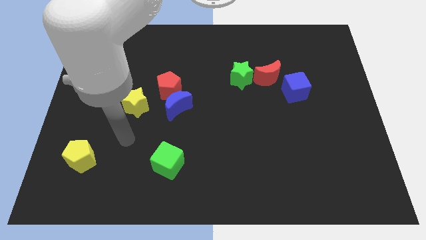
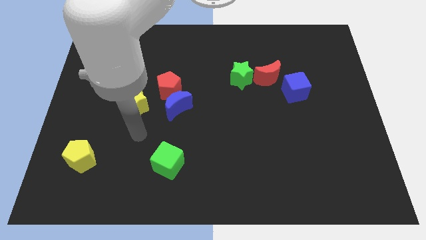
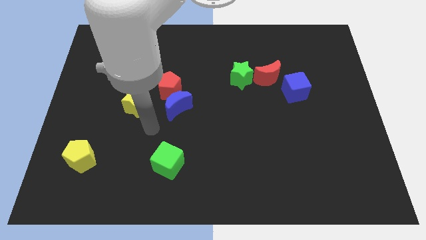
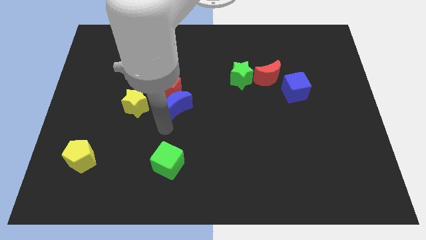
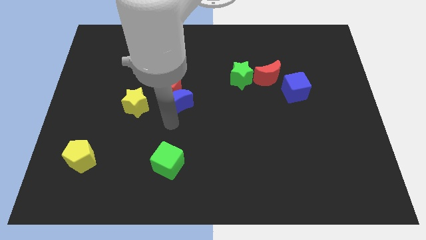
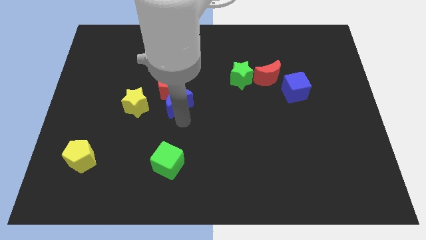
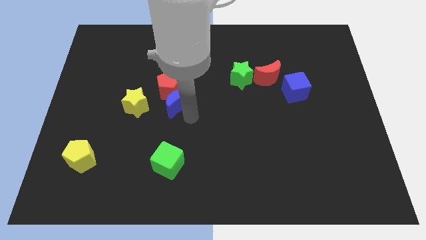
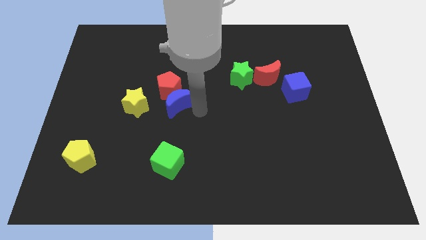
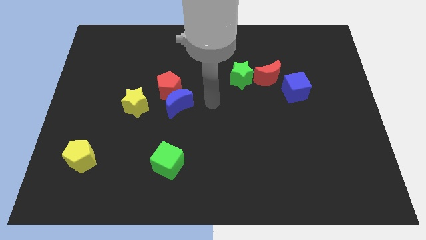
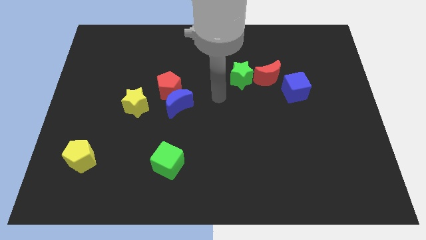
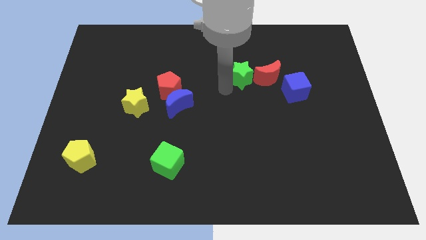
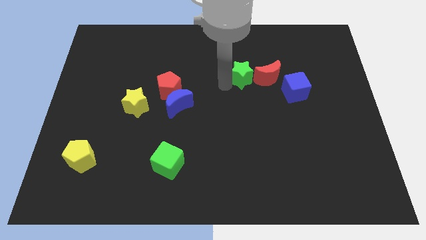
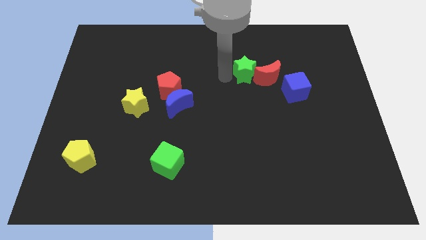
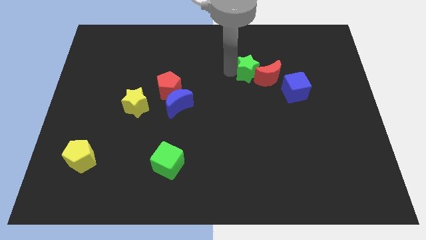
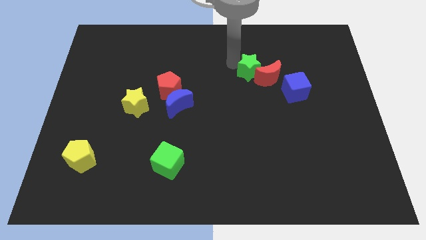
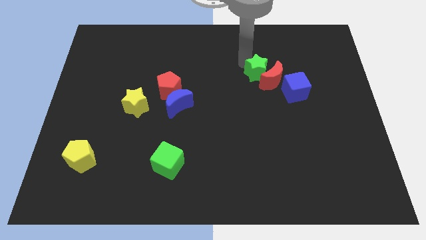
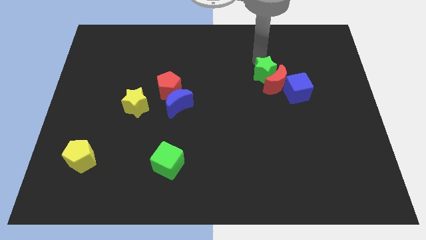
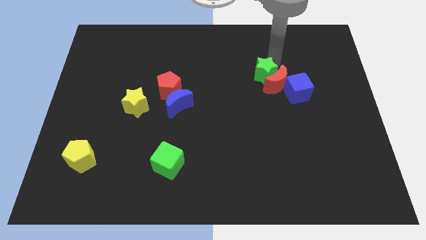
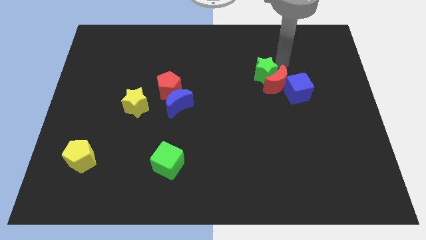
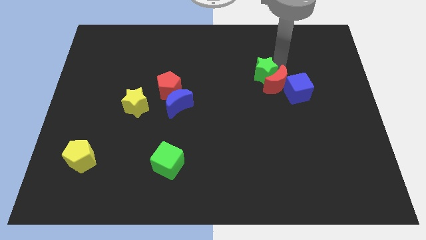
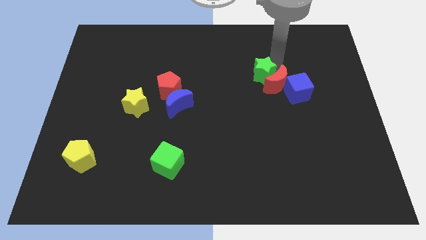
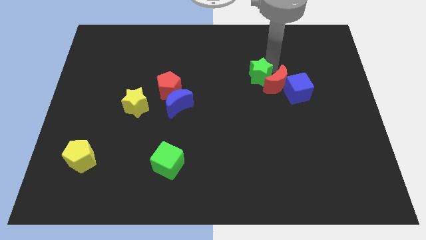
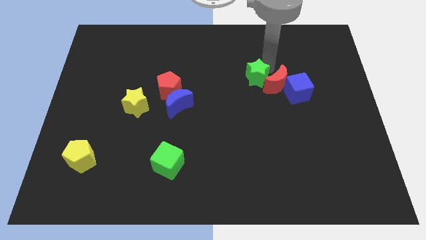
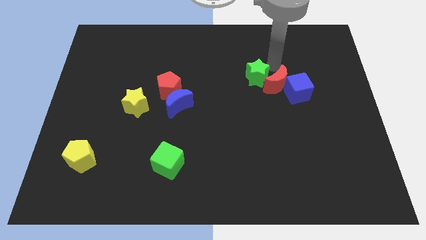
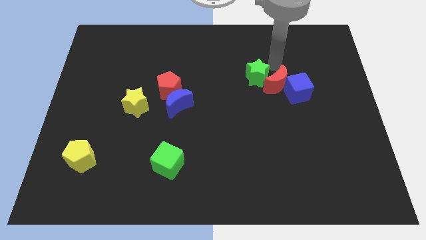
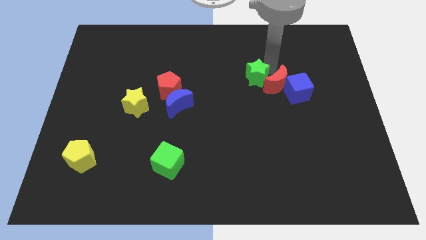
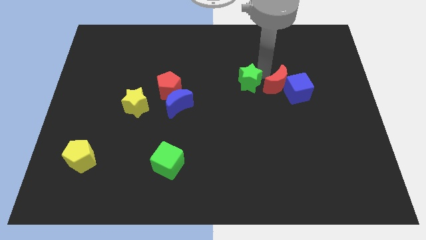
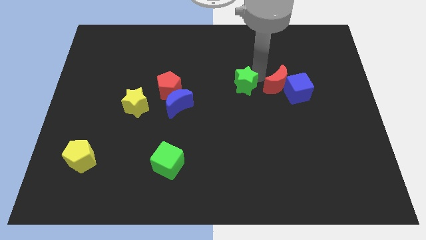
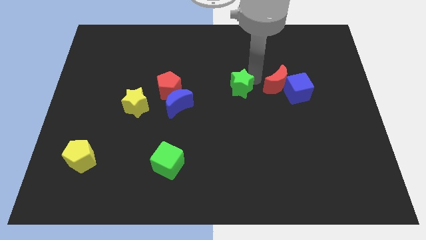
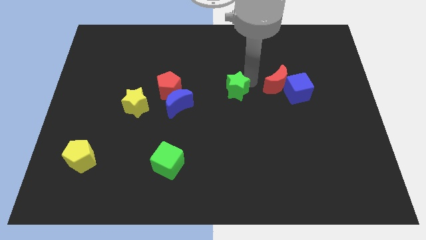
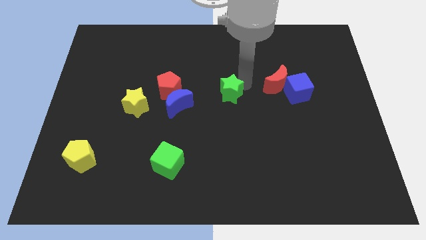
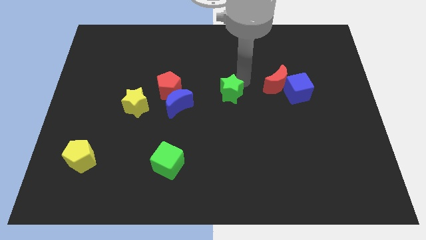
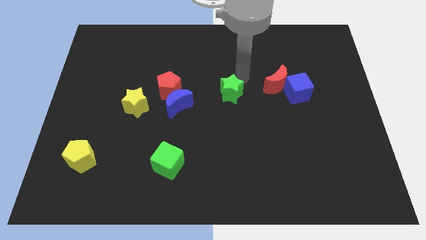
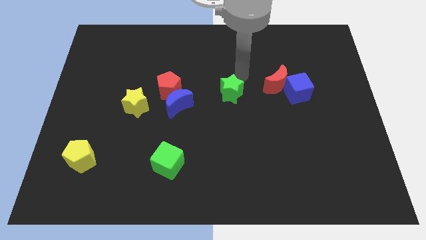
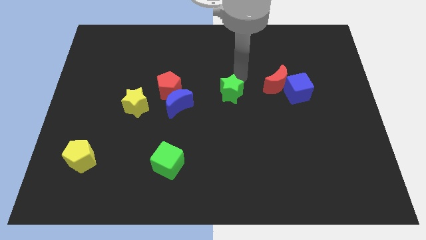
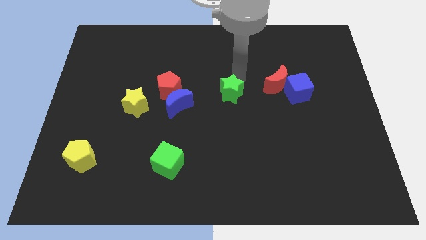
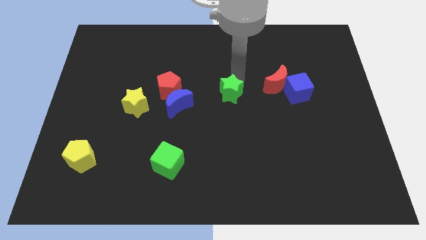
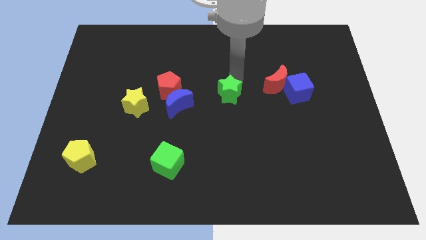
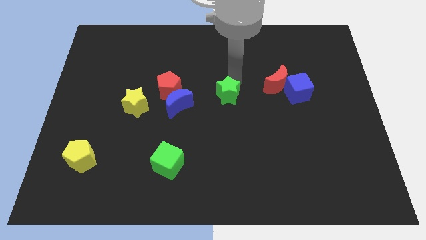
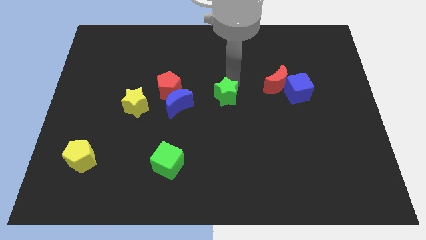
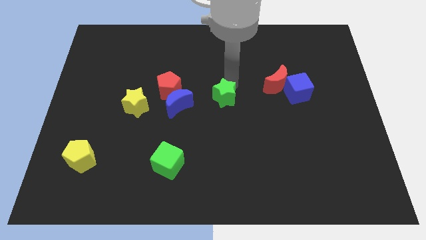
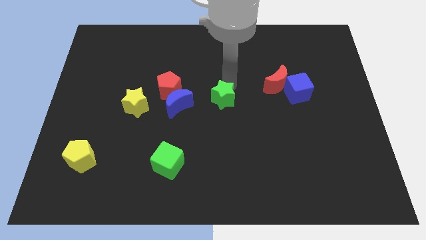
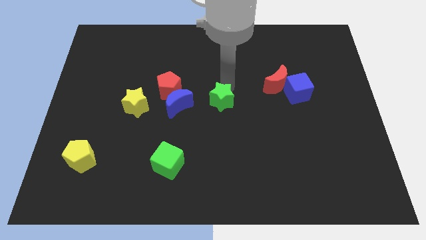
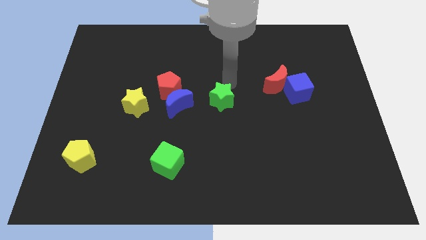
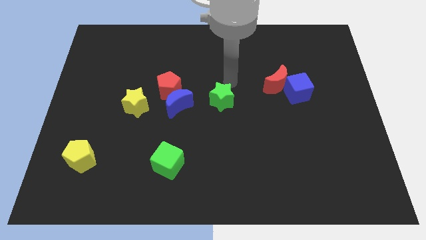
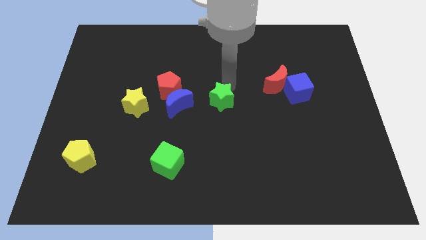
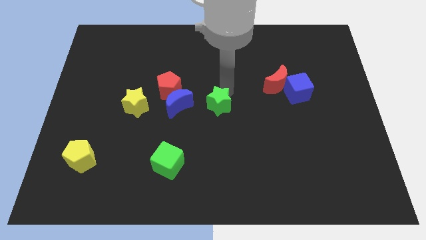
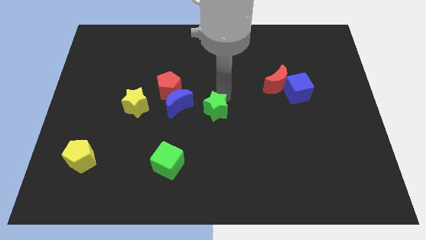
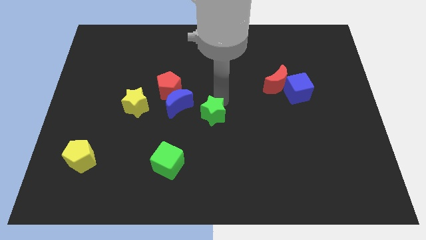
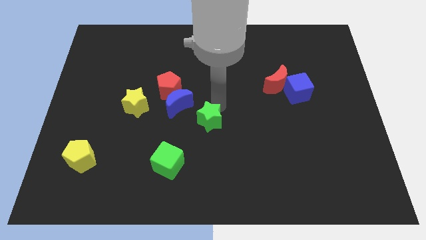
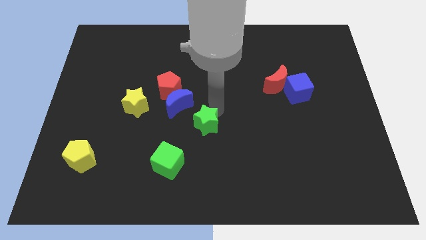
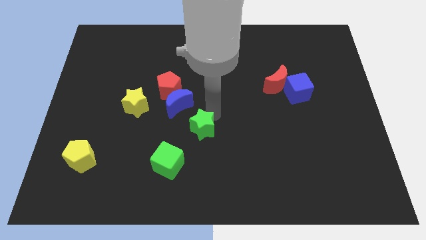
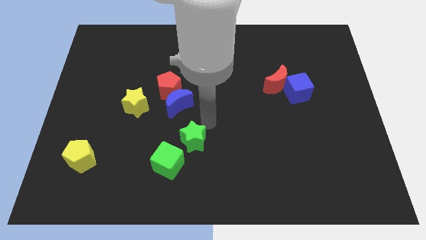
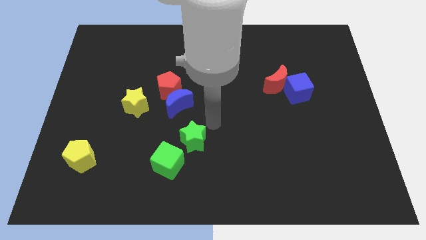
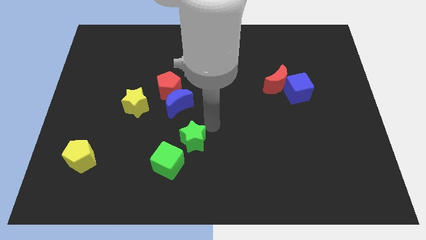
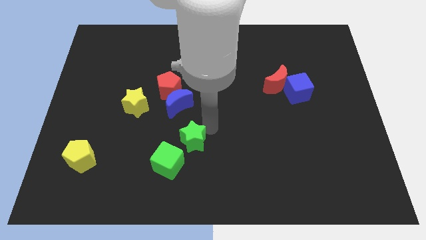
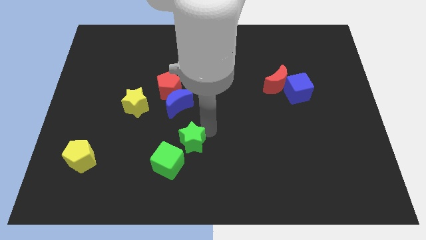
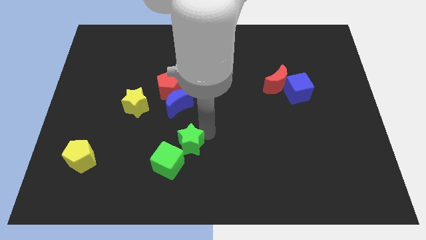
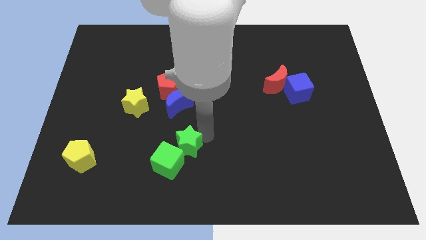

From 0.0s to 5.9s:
move the green star close to the green cube
